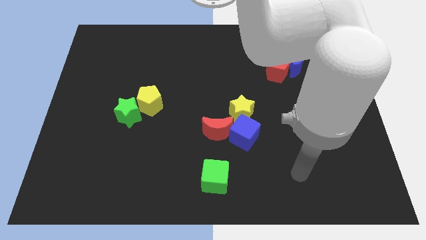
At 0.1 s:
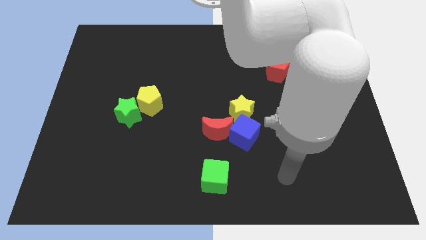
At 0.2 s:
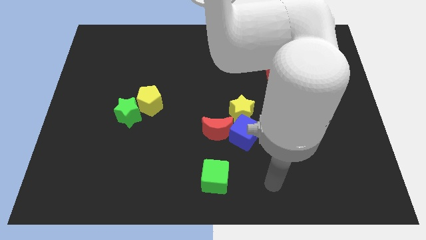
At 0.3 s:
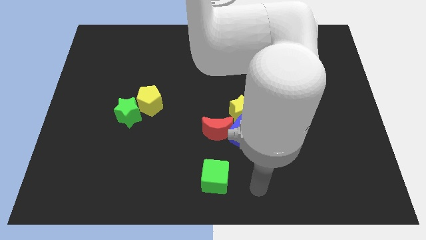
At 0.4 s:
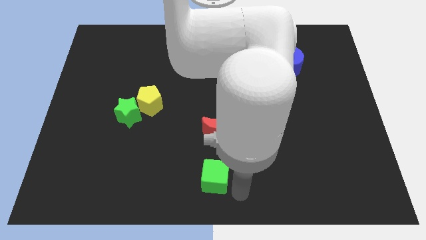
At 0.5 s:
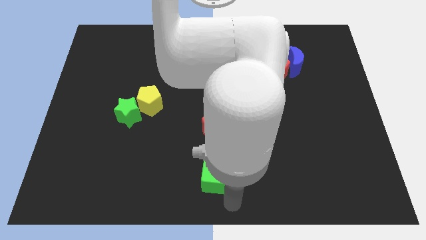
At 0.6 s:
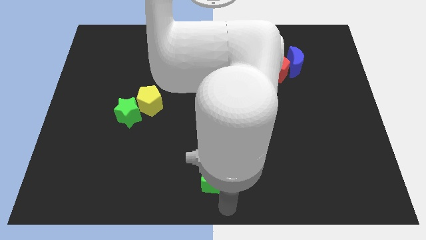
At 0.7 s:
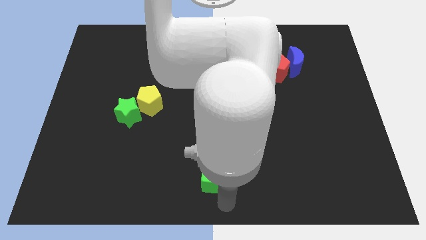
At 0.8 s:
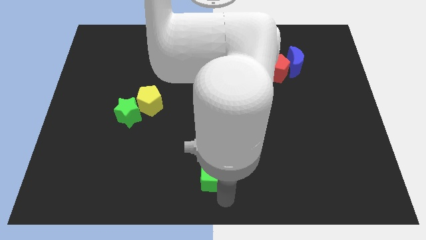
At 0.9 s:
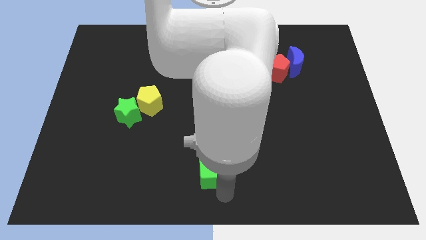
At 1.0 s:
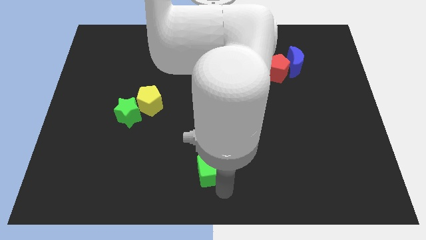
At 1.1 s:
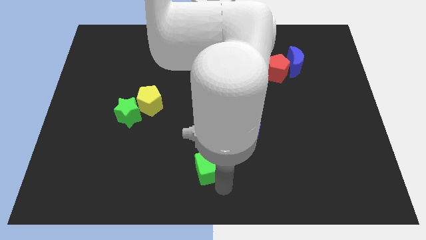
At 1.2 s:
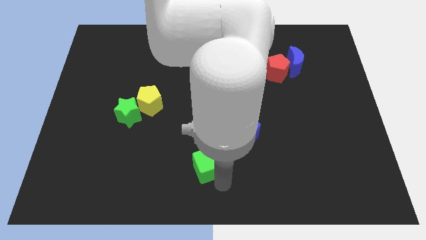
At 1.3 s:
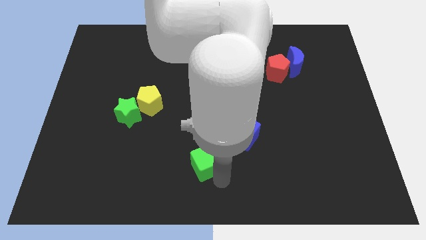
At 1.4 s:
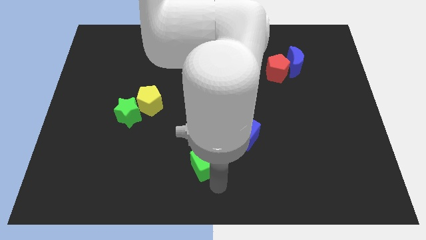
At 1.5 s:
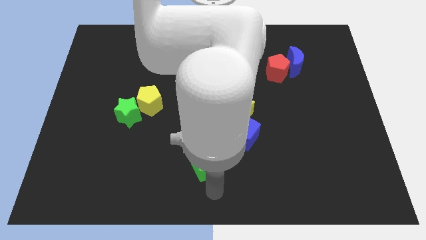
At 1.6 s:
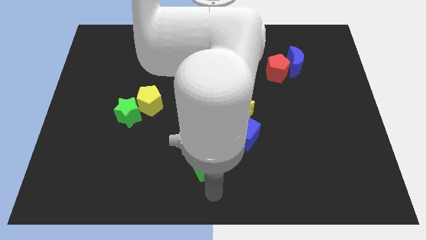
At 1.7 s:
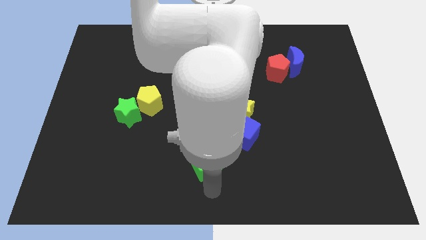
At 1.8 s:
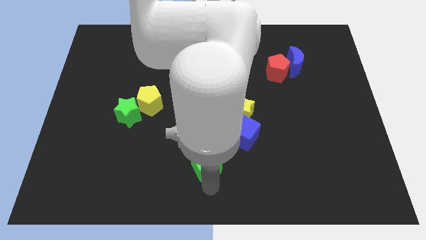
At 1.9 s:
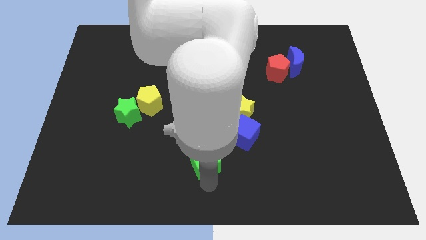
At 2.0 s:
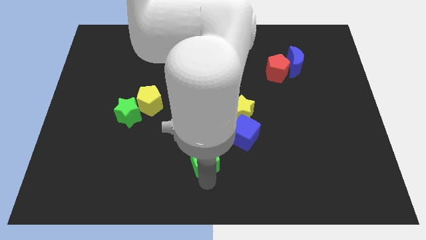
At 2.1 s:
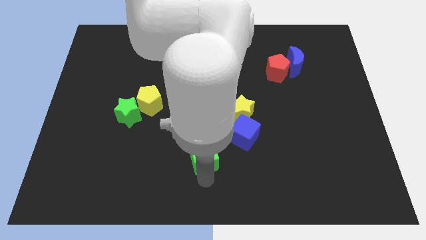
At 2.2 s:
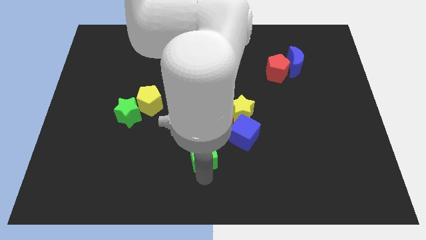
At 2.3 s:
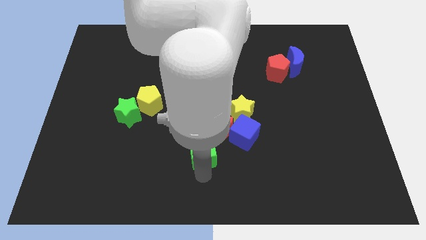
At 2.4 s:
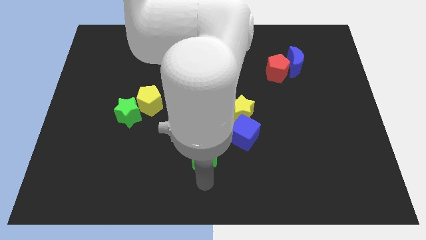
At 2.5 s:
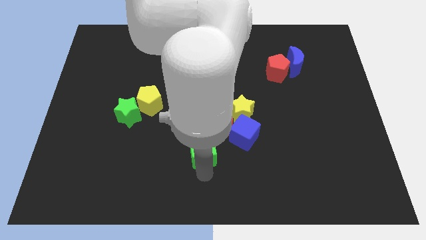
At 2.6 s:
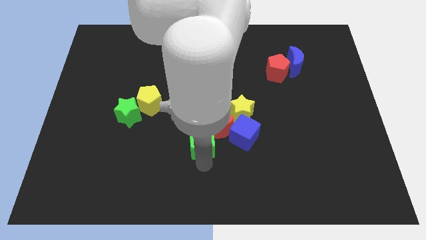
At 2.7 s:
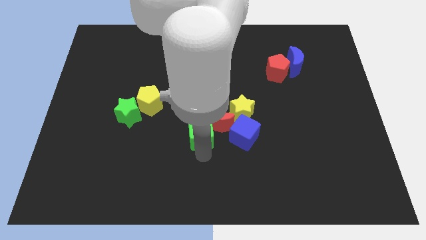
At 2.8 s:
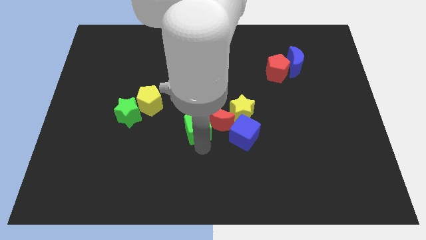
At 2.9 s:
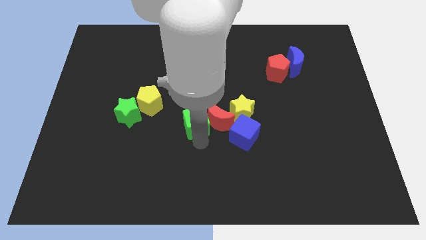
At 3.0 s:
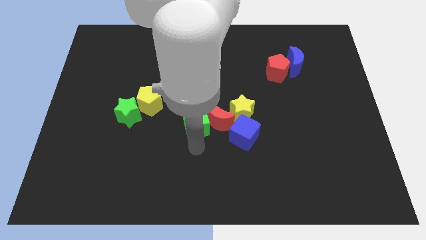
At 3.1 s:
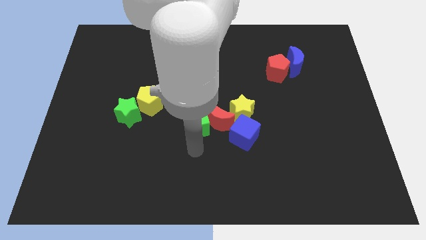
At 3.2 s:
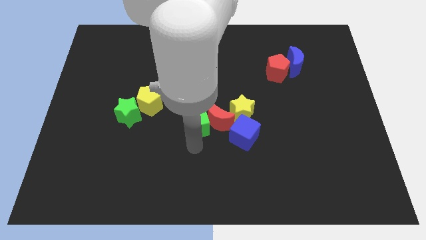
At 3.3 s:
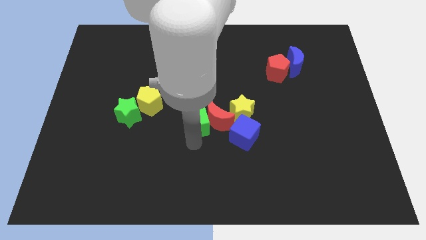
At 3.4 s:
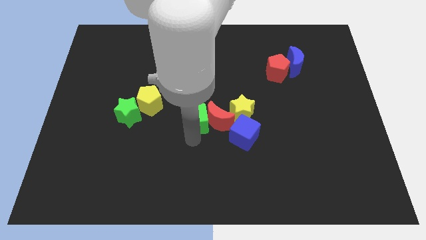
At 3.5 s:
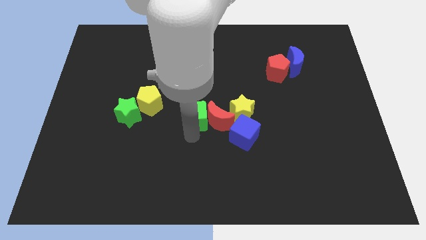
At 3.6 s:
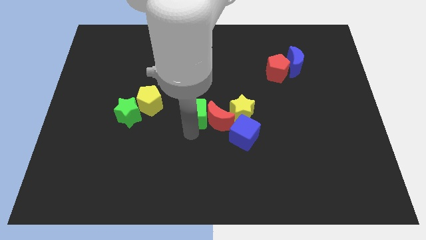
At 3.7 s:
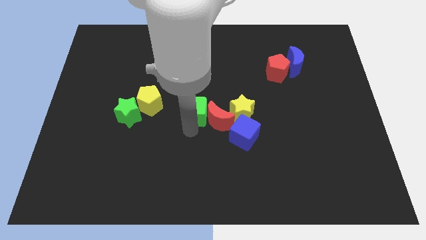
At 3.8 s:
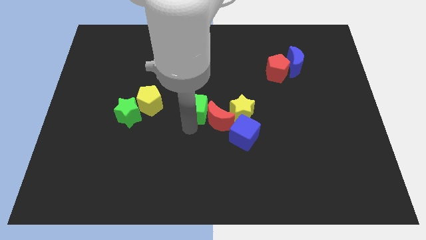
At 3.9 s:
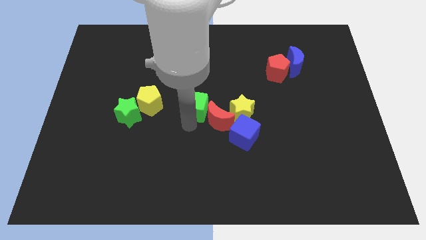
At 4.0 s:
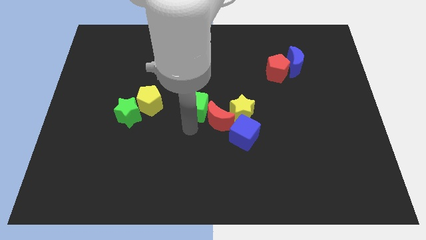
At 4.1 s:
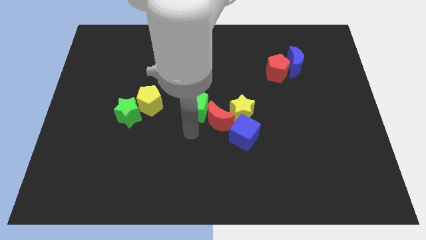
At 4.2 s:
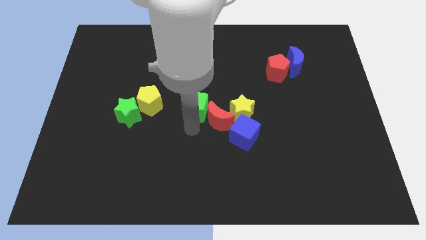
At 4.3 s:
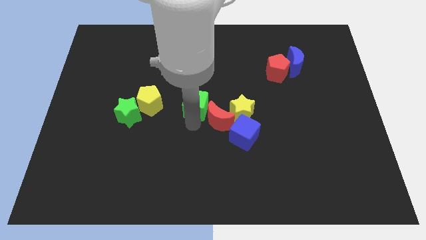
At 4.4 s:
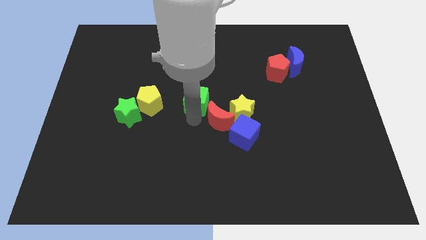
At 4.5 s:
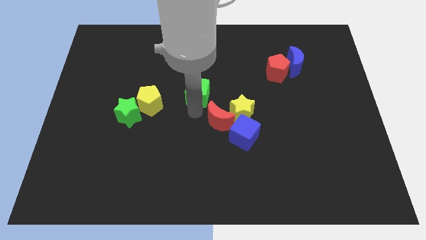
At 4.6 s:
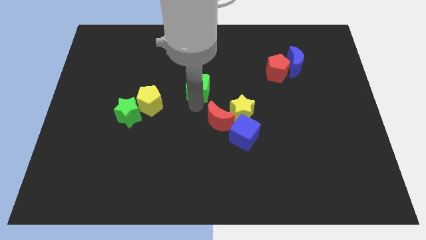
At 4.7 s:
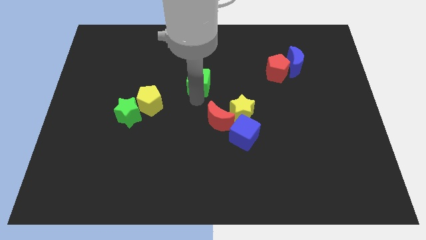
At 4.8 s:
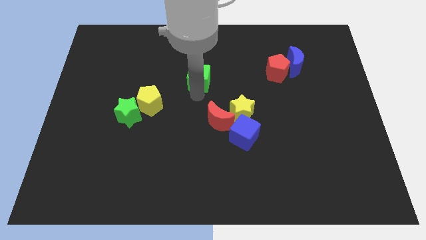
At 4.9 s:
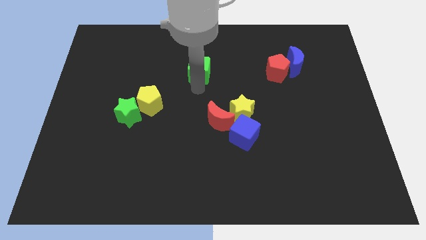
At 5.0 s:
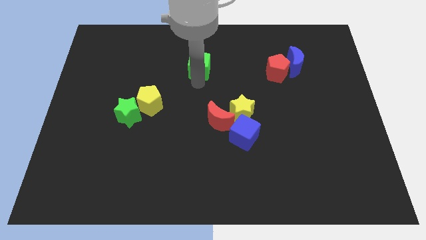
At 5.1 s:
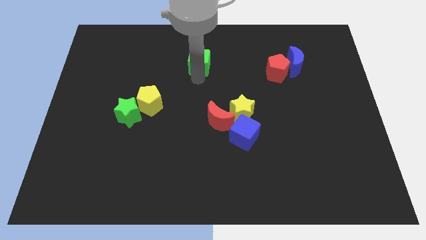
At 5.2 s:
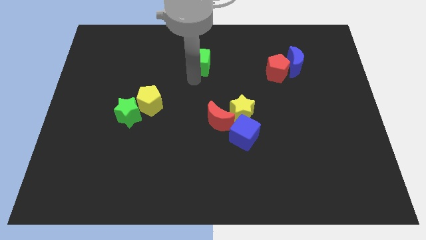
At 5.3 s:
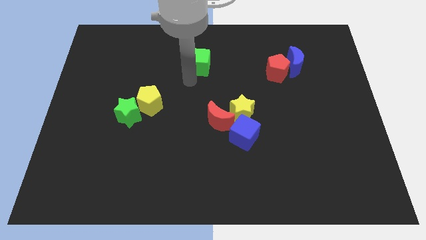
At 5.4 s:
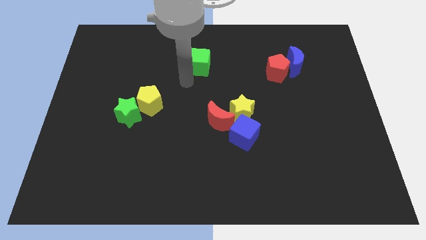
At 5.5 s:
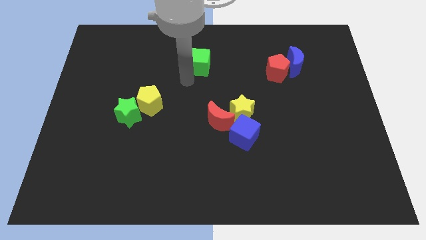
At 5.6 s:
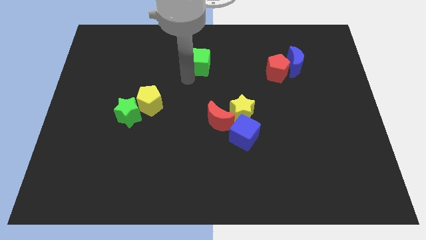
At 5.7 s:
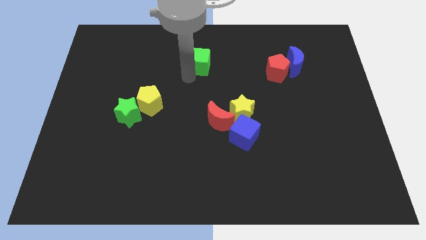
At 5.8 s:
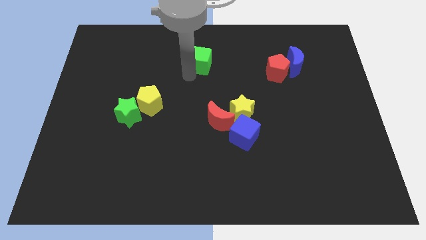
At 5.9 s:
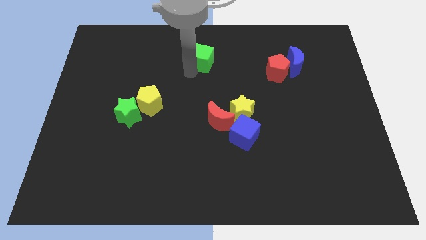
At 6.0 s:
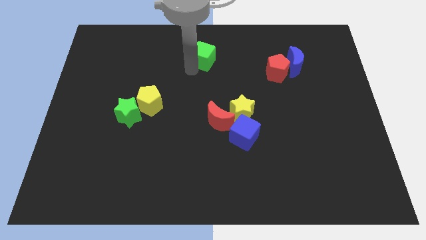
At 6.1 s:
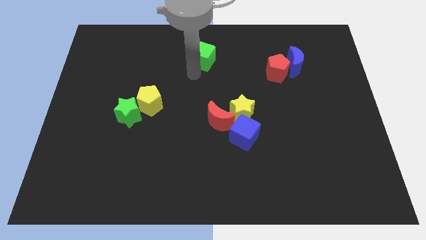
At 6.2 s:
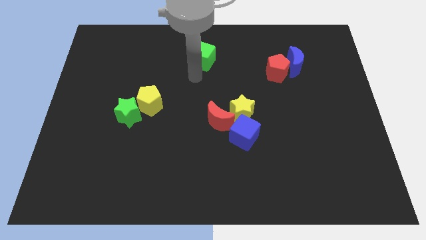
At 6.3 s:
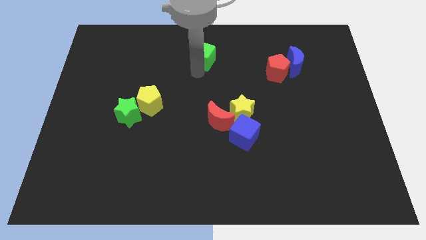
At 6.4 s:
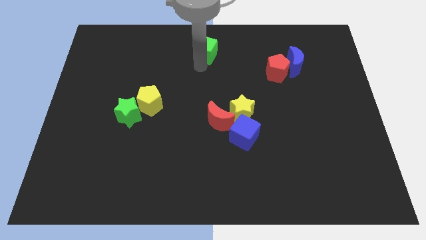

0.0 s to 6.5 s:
put the green cube to the towards your base

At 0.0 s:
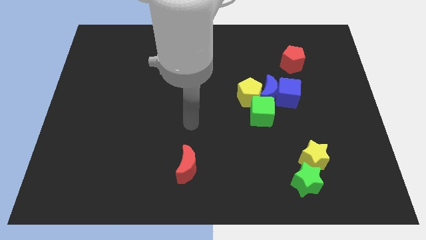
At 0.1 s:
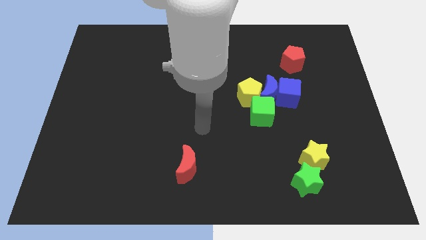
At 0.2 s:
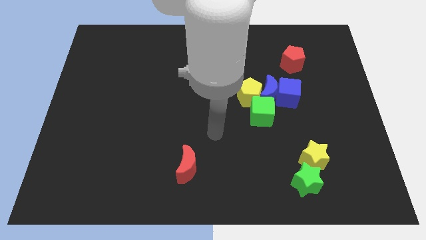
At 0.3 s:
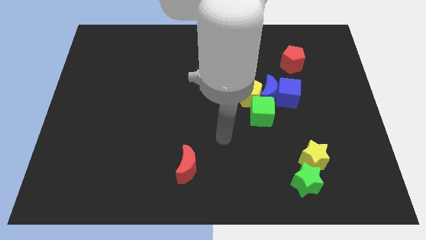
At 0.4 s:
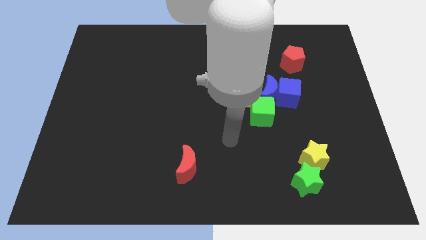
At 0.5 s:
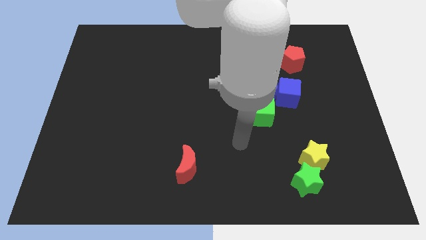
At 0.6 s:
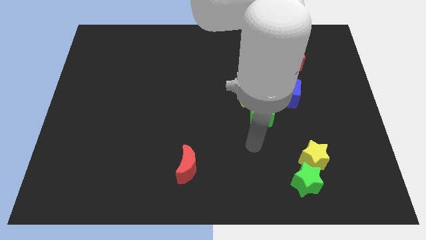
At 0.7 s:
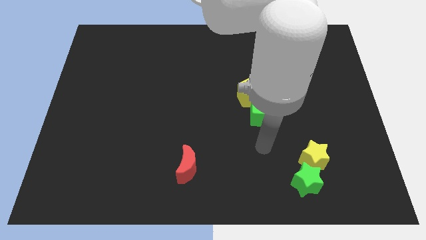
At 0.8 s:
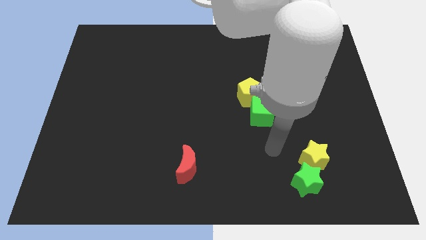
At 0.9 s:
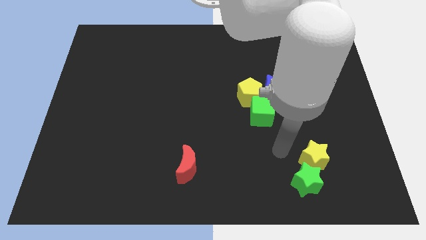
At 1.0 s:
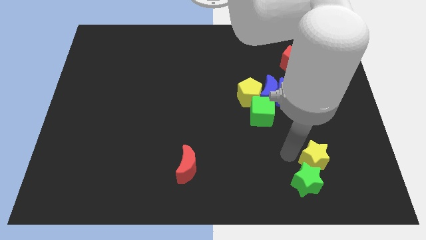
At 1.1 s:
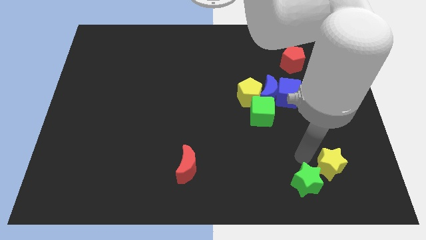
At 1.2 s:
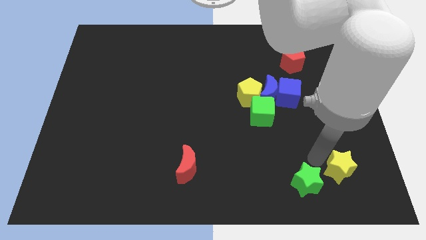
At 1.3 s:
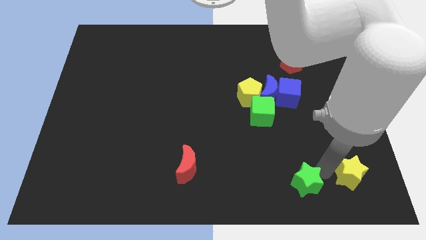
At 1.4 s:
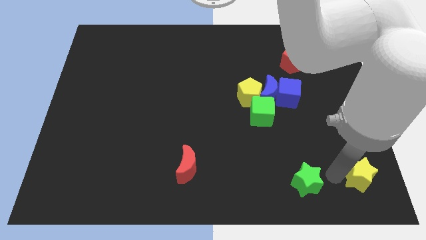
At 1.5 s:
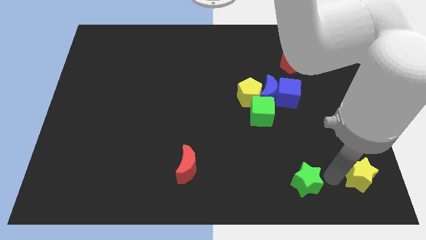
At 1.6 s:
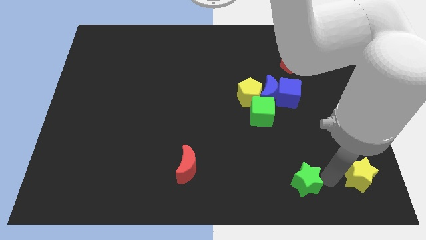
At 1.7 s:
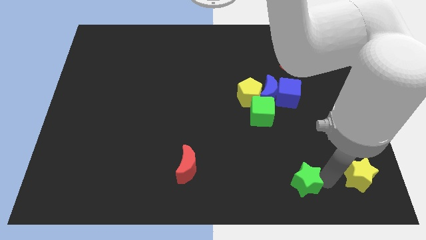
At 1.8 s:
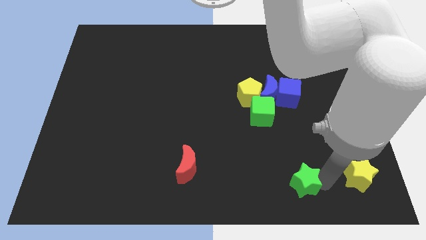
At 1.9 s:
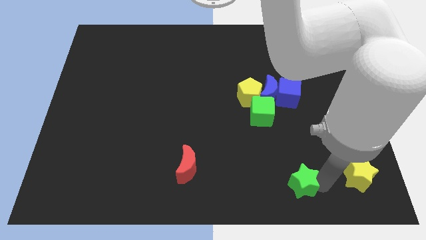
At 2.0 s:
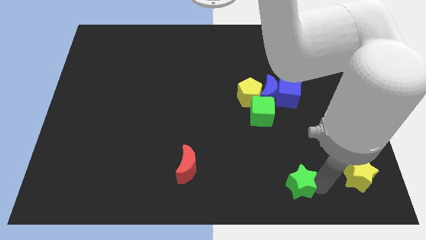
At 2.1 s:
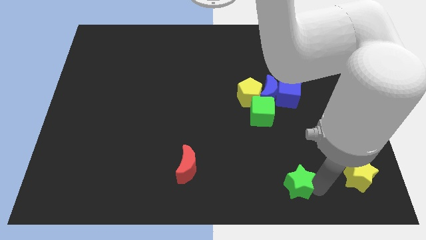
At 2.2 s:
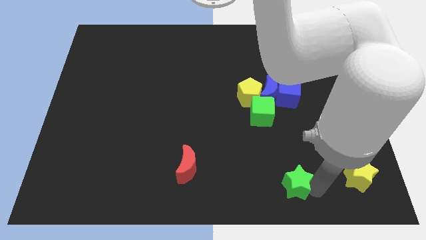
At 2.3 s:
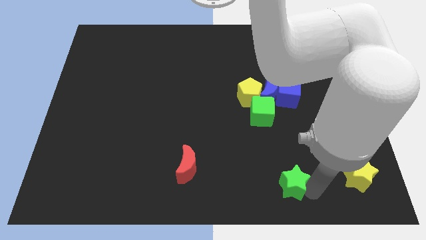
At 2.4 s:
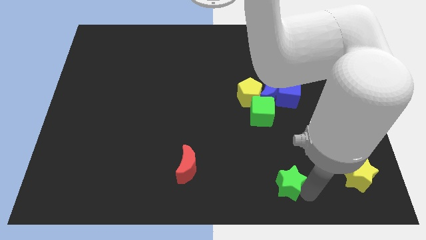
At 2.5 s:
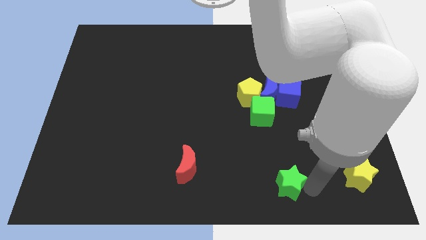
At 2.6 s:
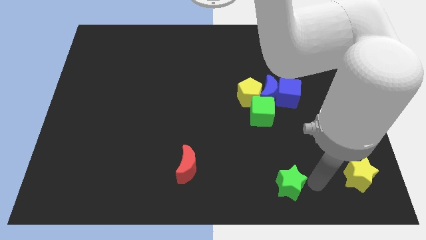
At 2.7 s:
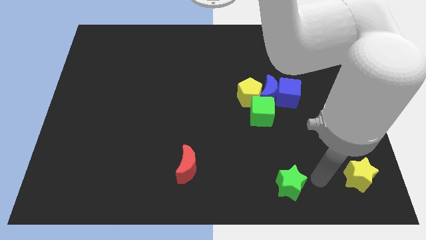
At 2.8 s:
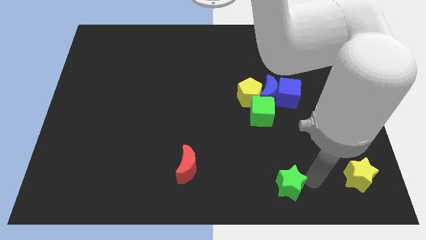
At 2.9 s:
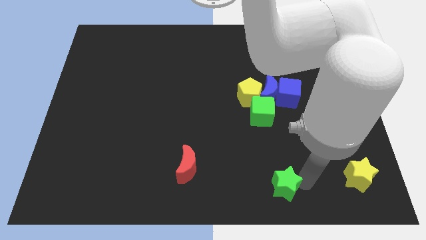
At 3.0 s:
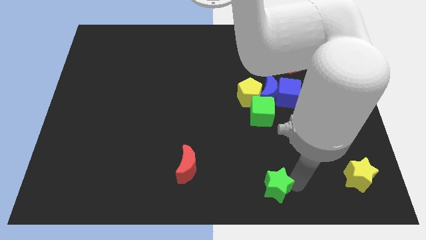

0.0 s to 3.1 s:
slide the green star to the bottom
